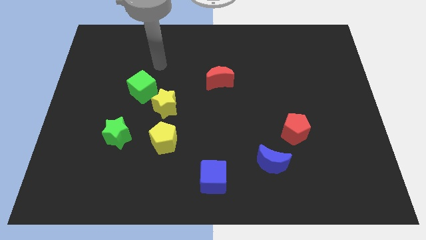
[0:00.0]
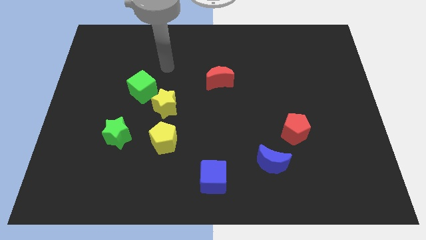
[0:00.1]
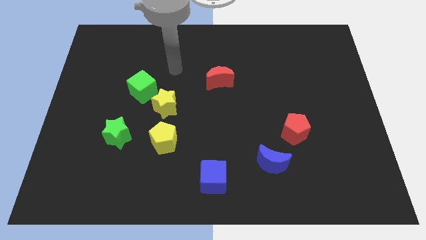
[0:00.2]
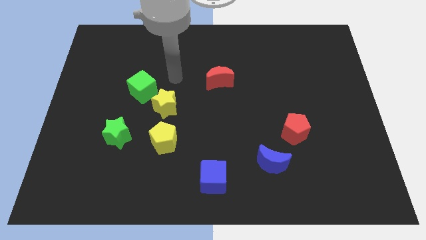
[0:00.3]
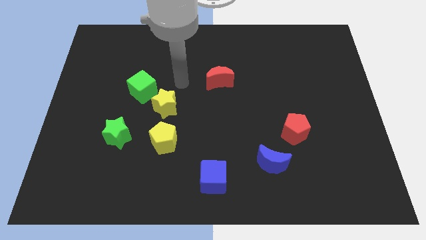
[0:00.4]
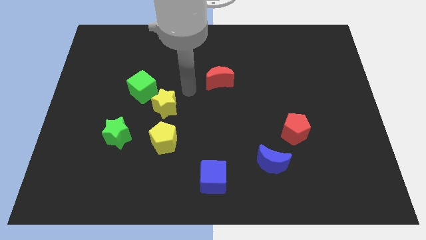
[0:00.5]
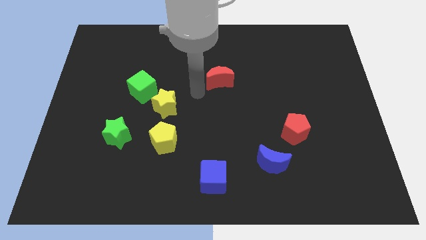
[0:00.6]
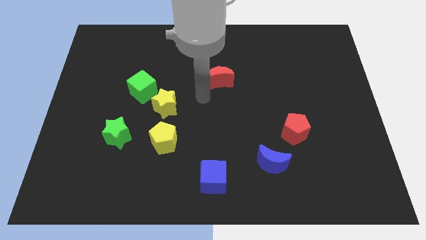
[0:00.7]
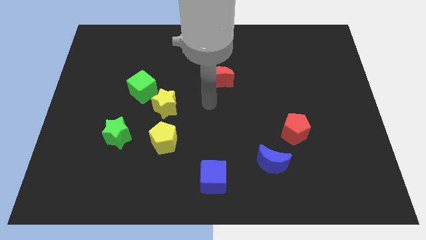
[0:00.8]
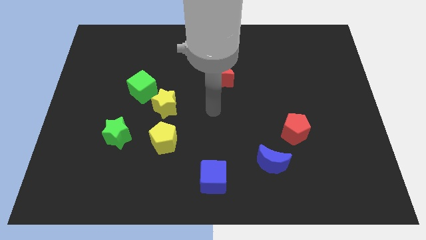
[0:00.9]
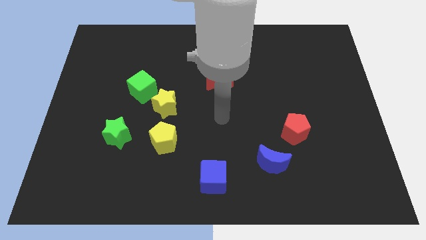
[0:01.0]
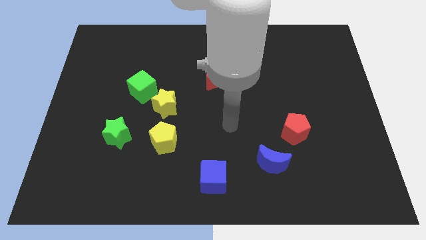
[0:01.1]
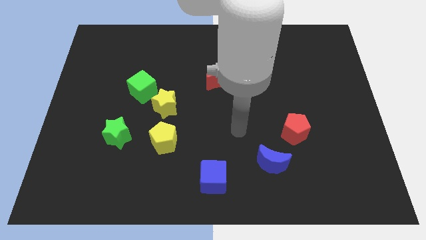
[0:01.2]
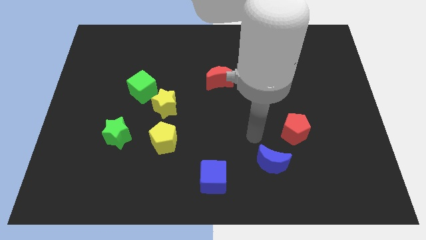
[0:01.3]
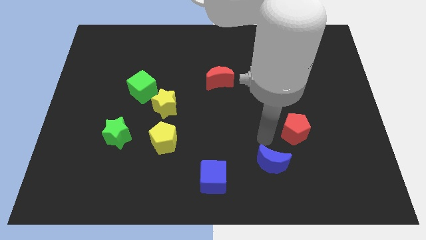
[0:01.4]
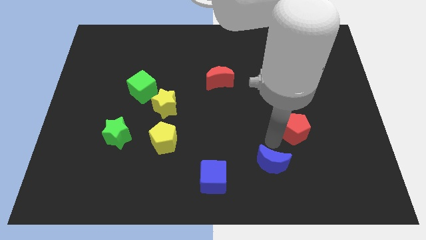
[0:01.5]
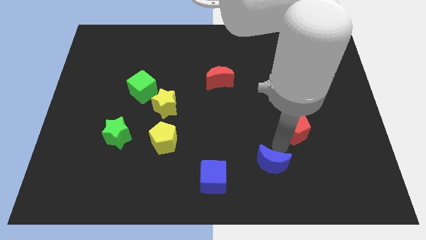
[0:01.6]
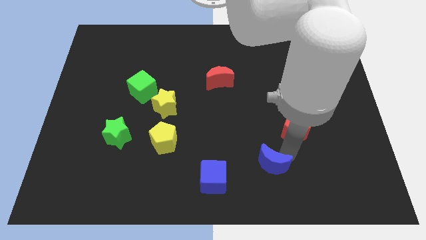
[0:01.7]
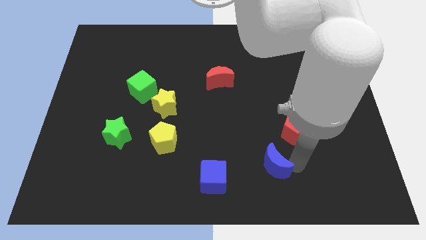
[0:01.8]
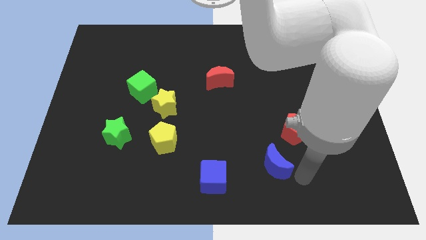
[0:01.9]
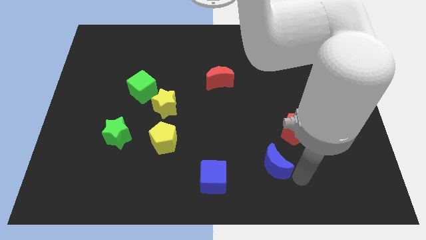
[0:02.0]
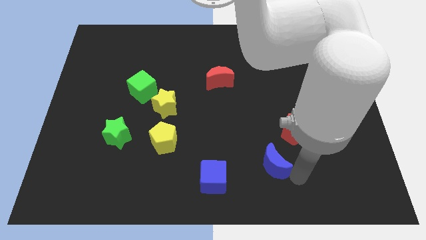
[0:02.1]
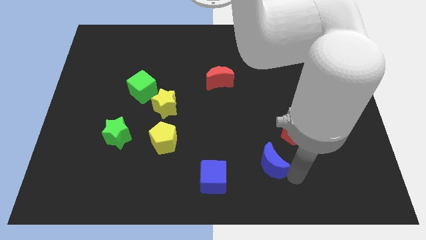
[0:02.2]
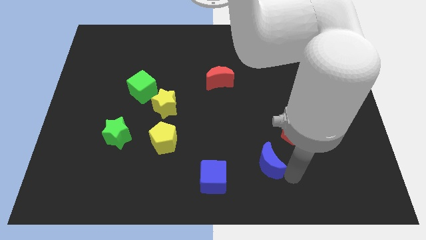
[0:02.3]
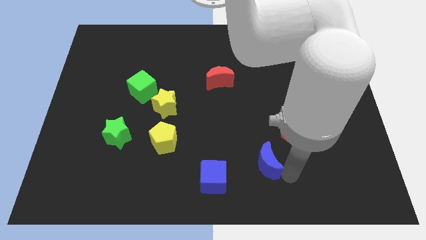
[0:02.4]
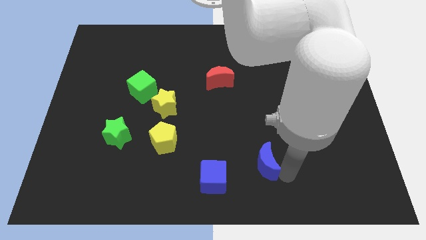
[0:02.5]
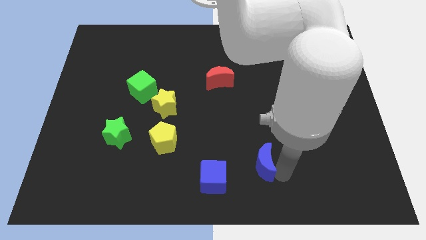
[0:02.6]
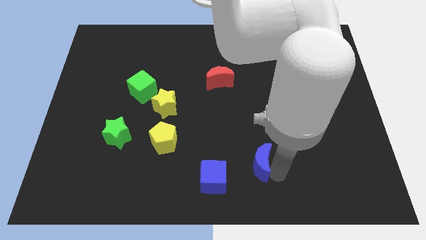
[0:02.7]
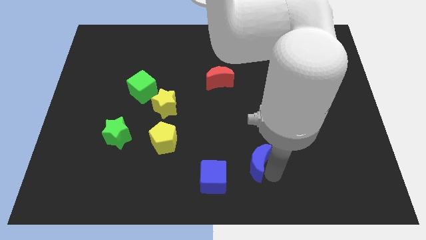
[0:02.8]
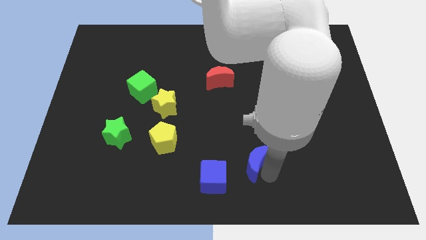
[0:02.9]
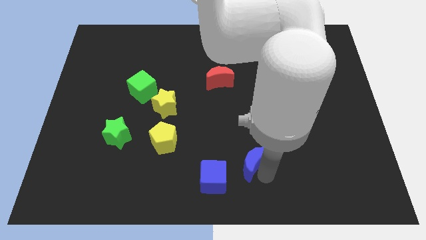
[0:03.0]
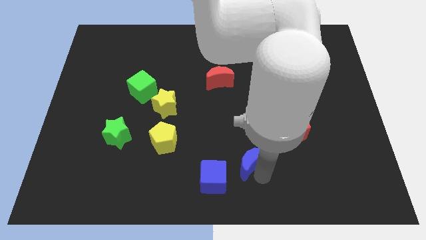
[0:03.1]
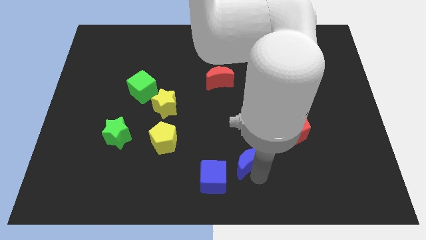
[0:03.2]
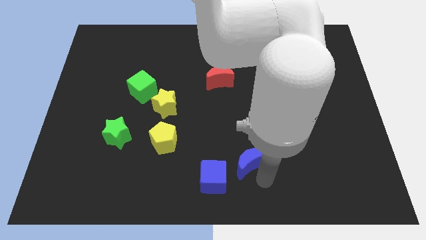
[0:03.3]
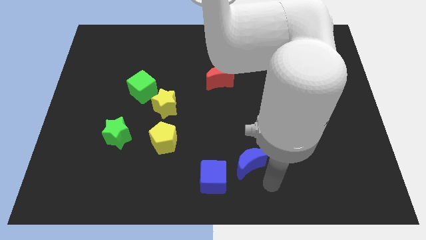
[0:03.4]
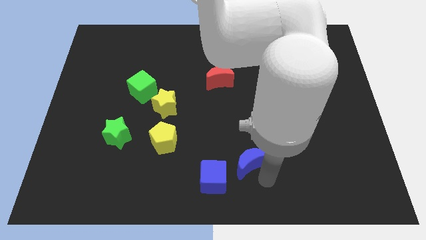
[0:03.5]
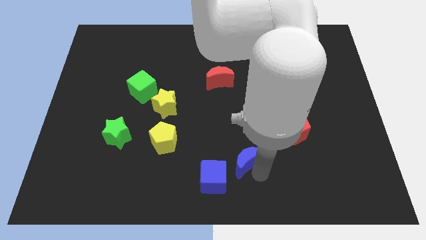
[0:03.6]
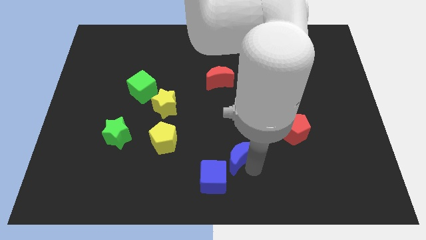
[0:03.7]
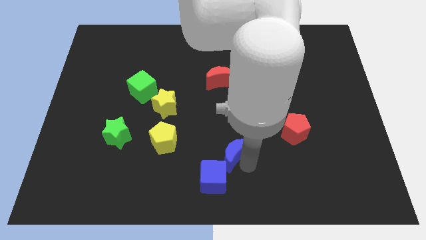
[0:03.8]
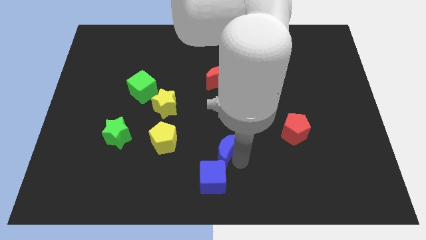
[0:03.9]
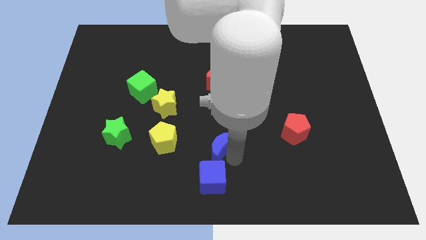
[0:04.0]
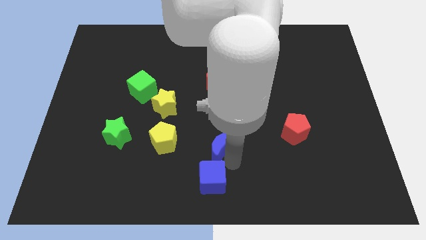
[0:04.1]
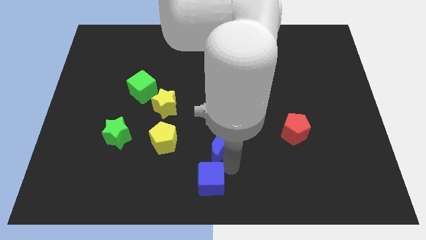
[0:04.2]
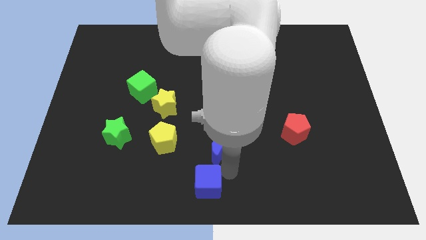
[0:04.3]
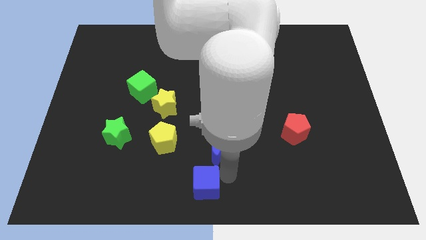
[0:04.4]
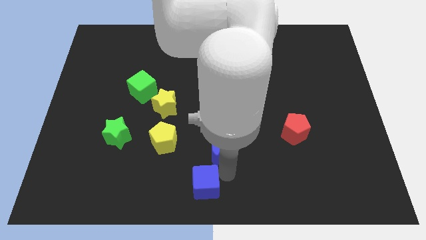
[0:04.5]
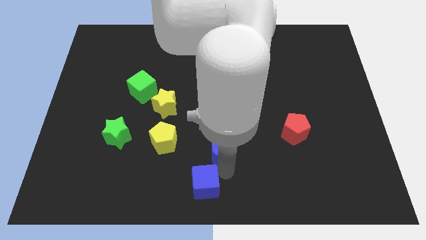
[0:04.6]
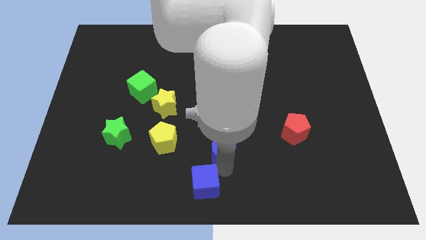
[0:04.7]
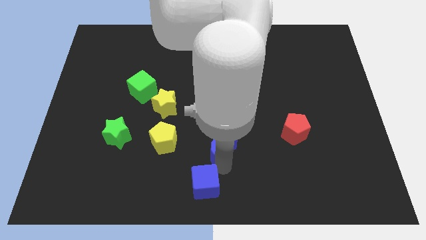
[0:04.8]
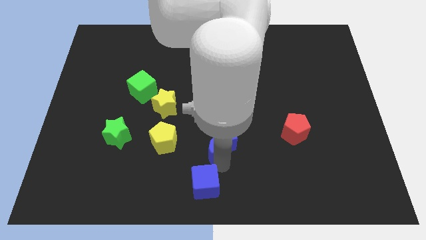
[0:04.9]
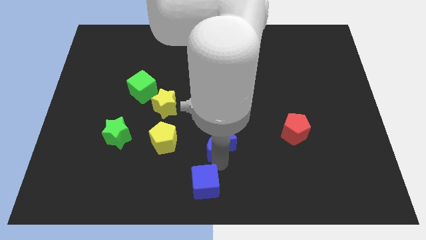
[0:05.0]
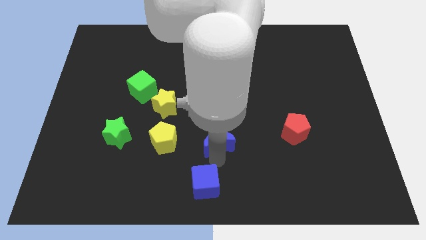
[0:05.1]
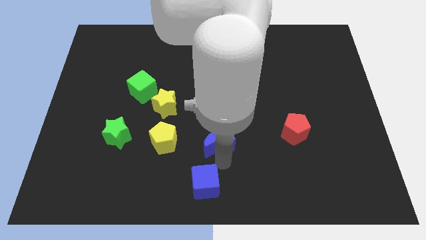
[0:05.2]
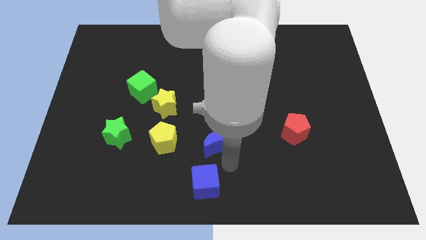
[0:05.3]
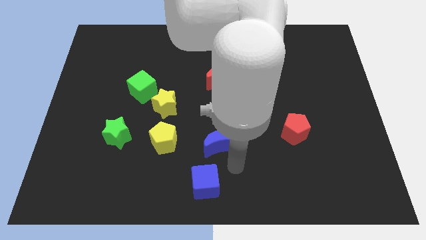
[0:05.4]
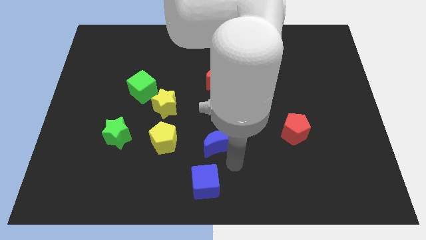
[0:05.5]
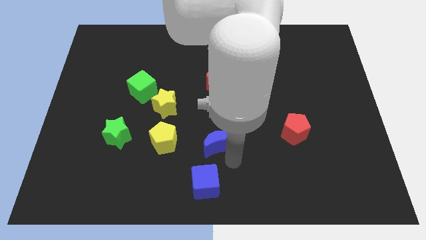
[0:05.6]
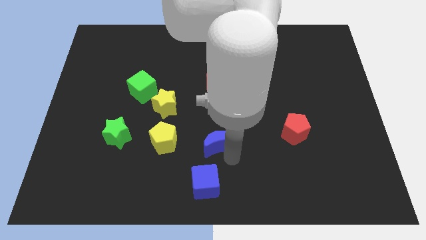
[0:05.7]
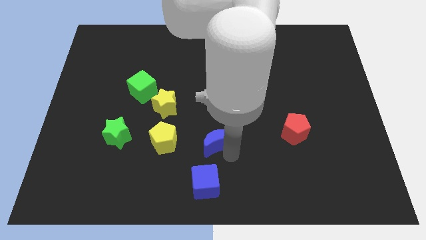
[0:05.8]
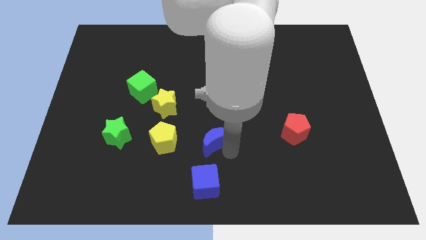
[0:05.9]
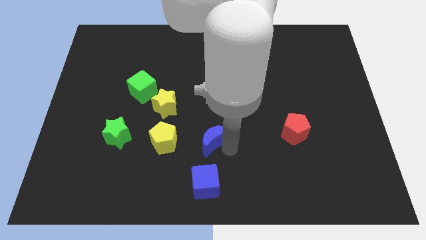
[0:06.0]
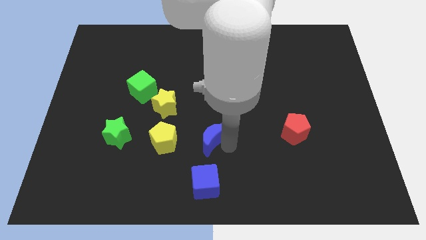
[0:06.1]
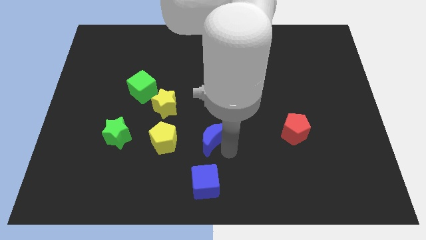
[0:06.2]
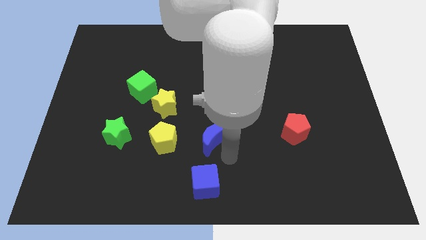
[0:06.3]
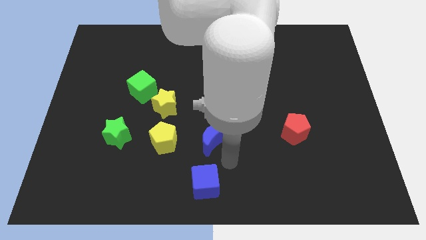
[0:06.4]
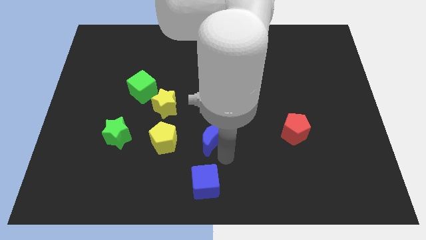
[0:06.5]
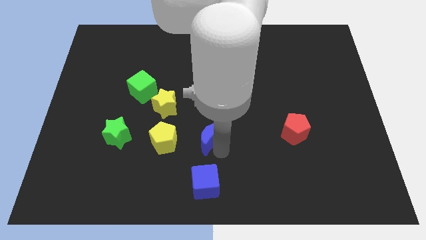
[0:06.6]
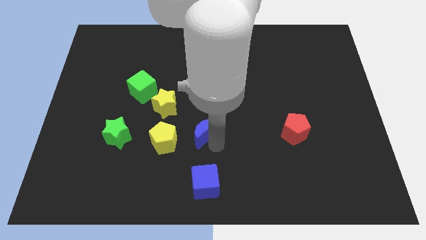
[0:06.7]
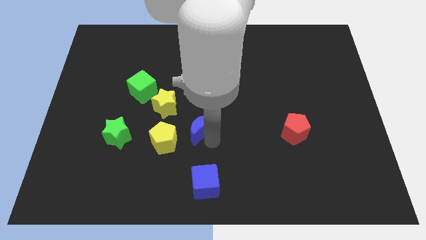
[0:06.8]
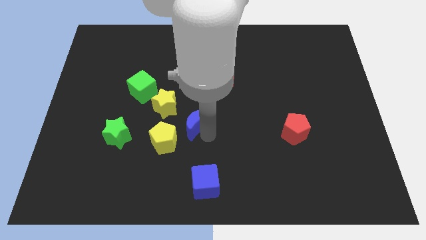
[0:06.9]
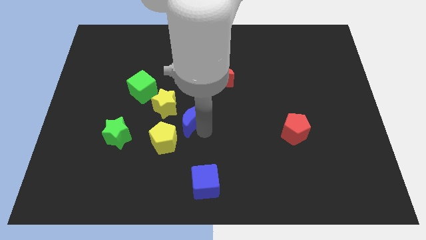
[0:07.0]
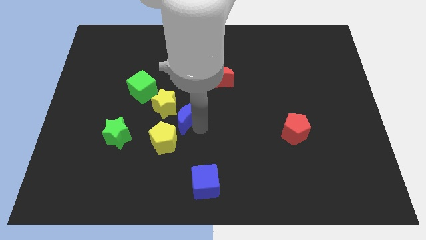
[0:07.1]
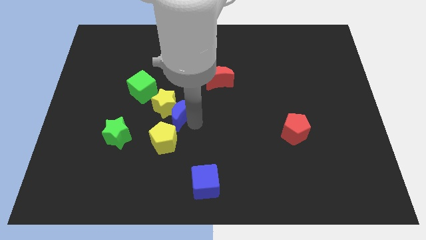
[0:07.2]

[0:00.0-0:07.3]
push the blue moon towards the yellow star
